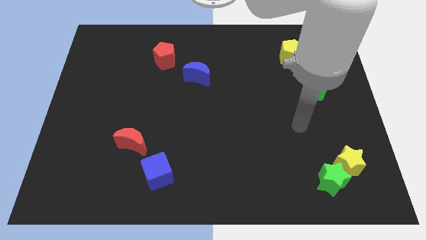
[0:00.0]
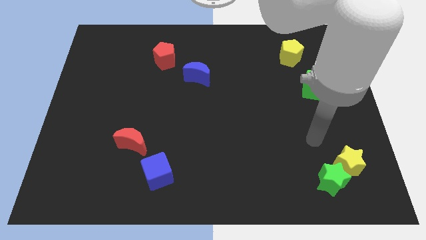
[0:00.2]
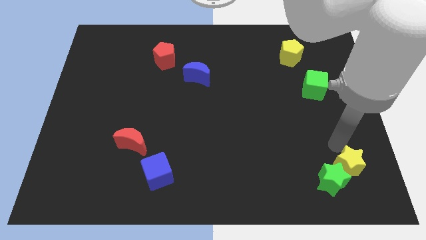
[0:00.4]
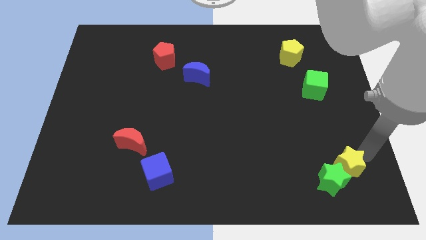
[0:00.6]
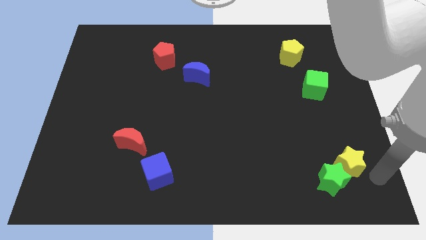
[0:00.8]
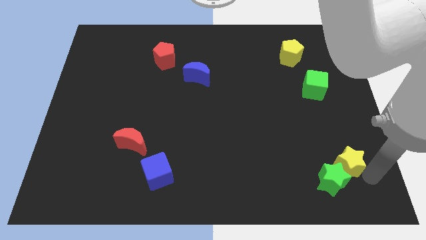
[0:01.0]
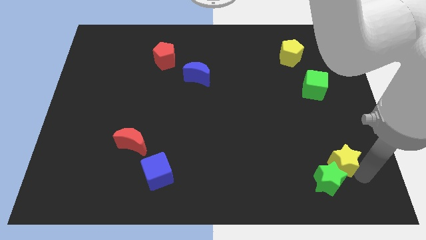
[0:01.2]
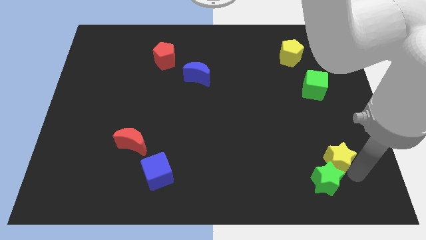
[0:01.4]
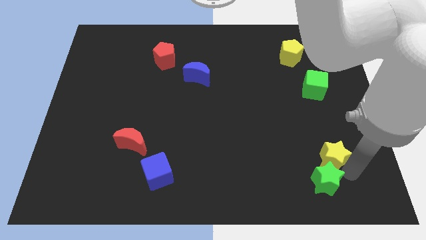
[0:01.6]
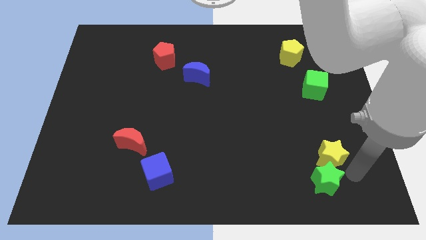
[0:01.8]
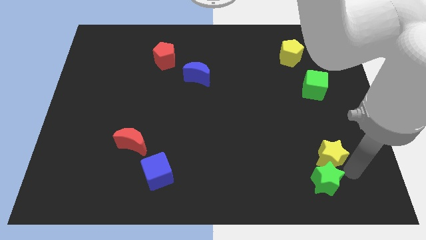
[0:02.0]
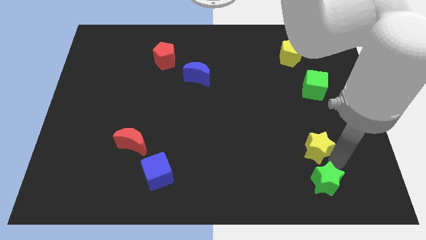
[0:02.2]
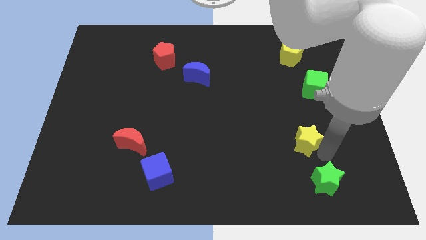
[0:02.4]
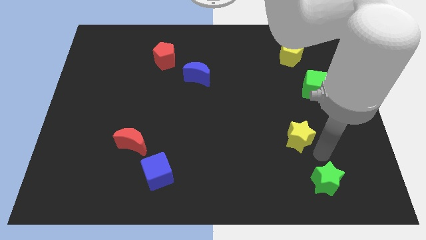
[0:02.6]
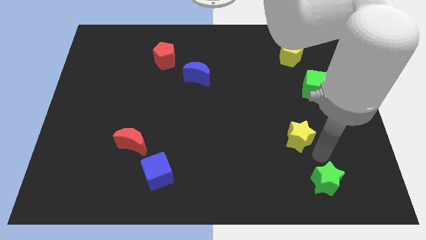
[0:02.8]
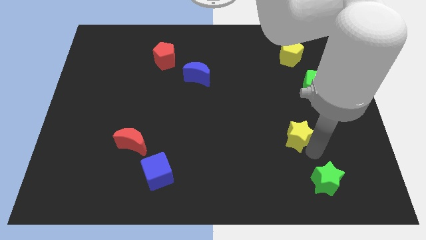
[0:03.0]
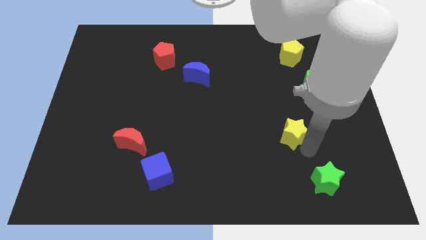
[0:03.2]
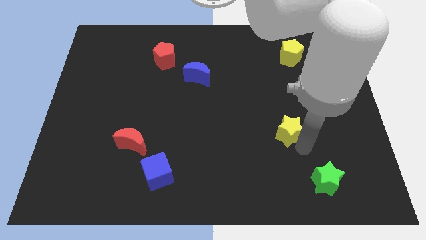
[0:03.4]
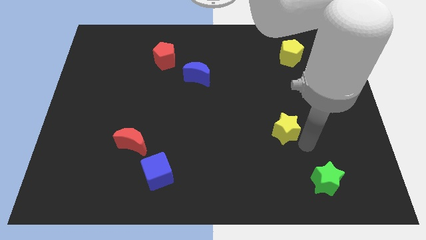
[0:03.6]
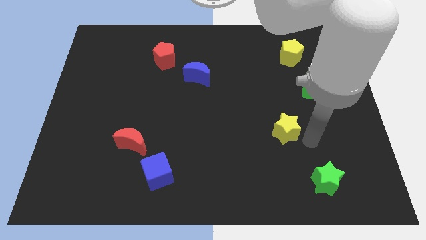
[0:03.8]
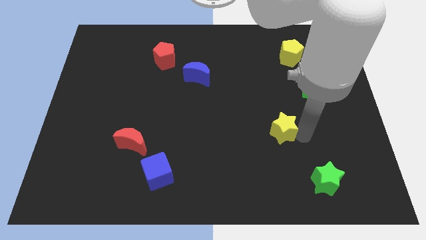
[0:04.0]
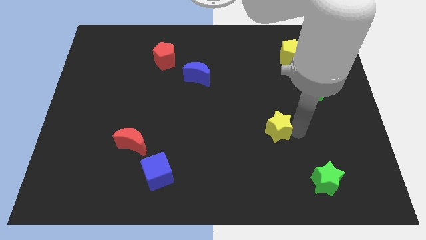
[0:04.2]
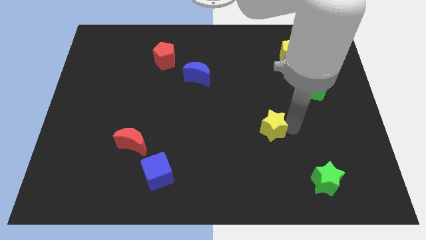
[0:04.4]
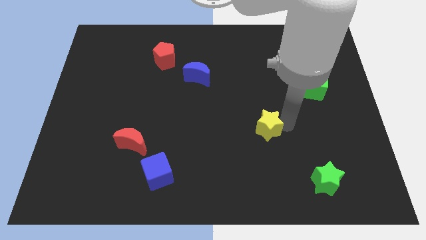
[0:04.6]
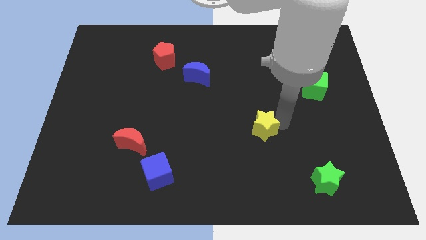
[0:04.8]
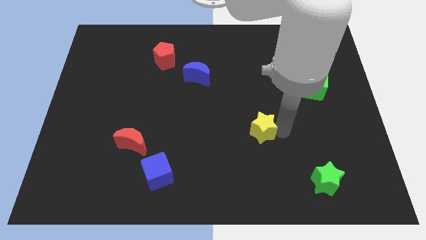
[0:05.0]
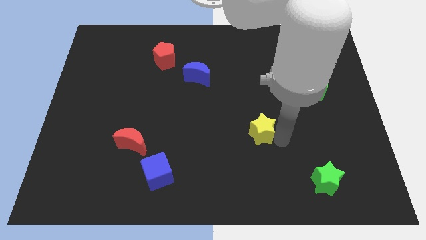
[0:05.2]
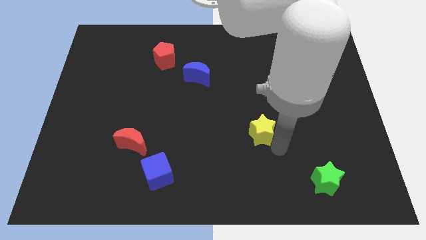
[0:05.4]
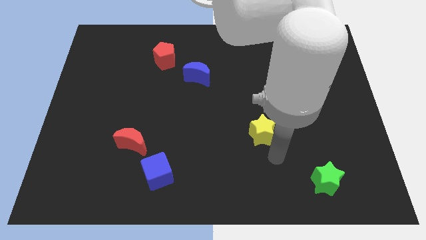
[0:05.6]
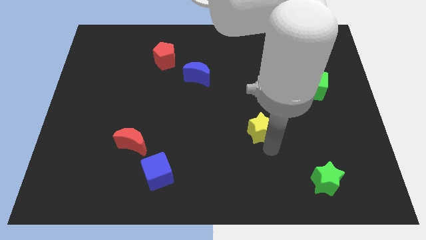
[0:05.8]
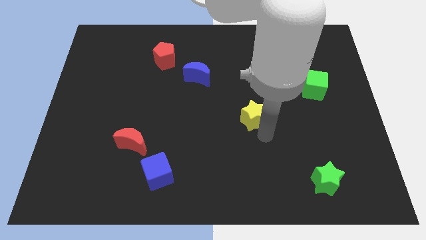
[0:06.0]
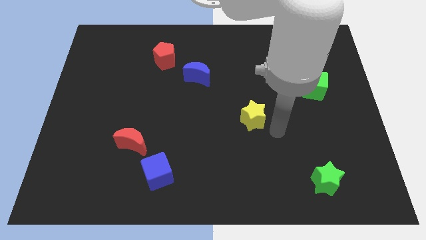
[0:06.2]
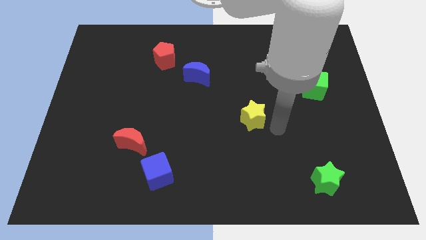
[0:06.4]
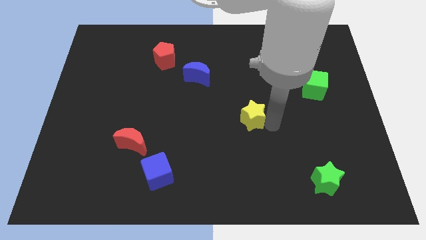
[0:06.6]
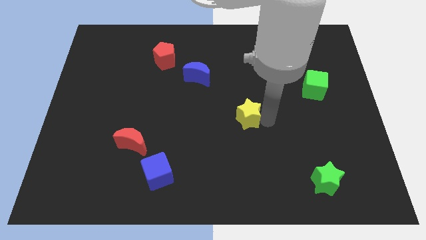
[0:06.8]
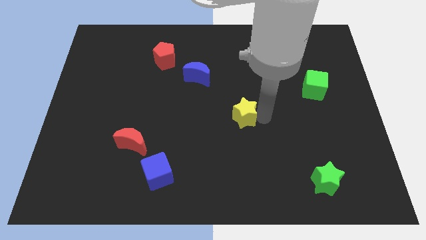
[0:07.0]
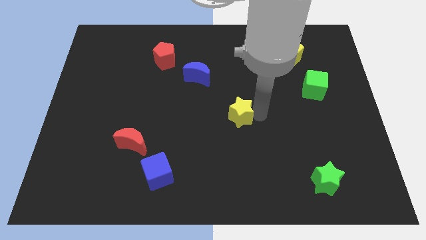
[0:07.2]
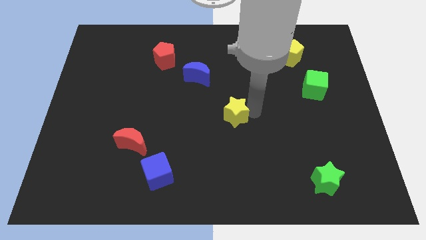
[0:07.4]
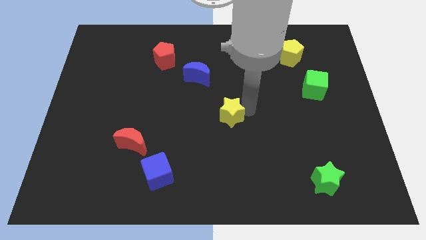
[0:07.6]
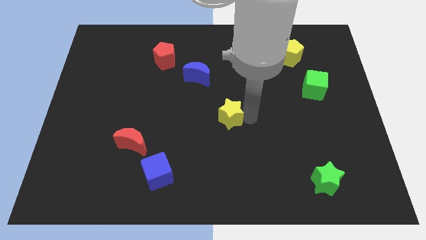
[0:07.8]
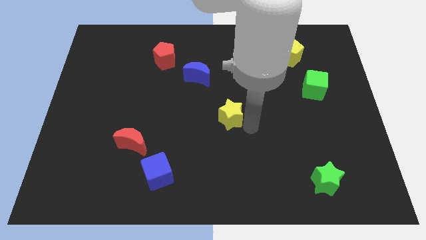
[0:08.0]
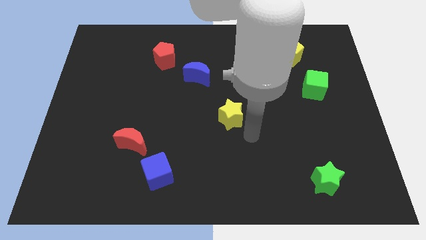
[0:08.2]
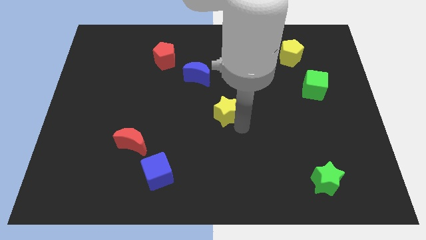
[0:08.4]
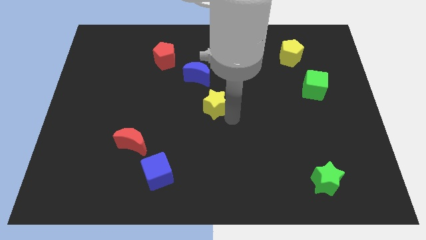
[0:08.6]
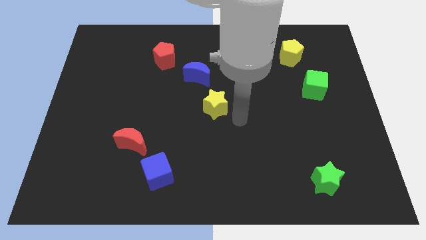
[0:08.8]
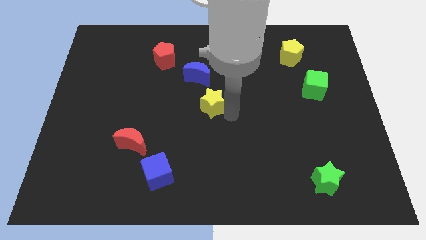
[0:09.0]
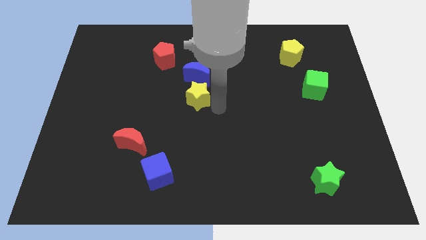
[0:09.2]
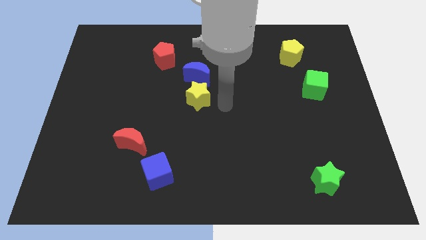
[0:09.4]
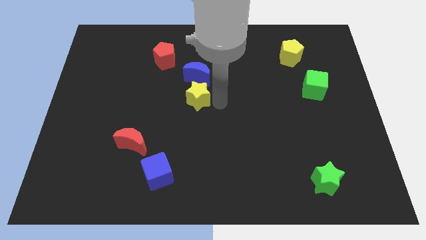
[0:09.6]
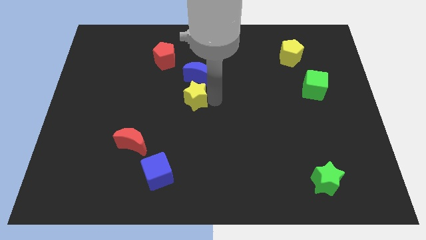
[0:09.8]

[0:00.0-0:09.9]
push the yellow star to the bottom left side of the blue moon

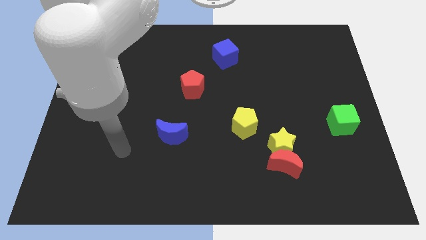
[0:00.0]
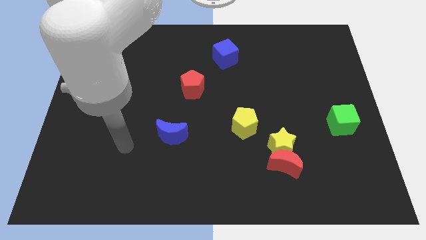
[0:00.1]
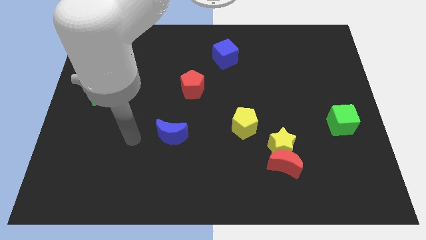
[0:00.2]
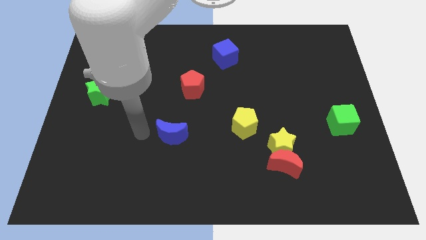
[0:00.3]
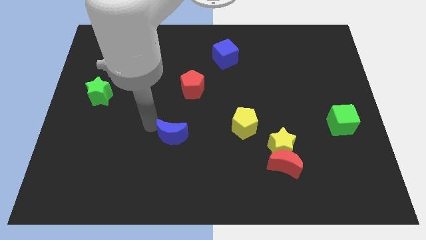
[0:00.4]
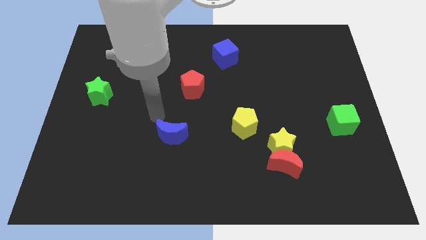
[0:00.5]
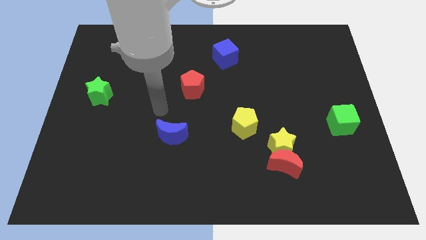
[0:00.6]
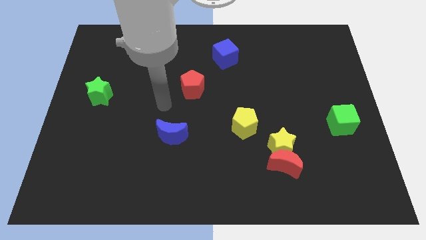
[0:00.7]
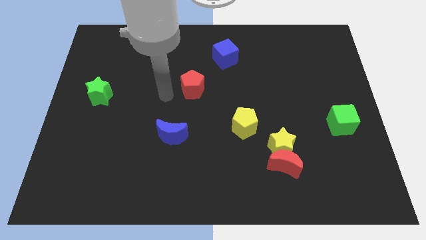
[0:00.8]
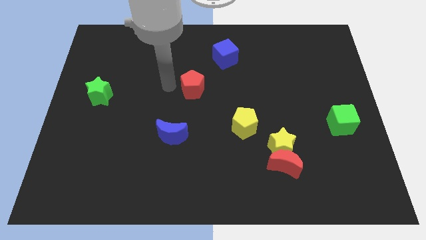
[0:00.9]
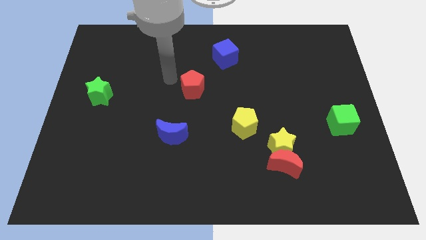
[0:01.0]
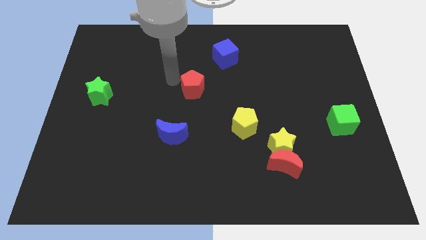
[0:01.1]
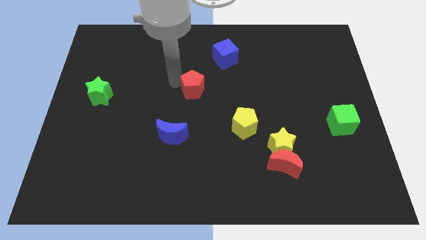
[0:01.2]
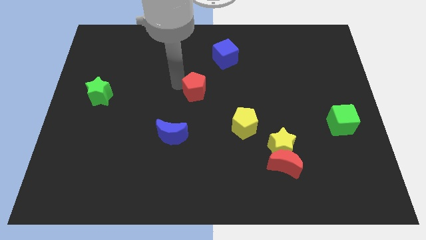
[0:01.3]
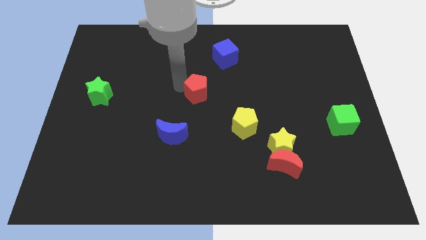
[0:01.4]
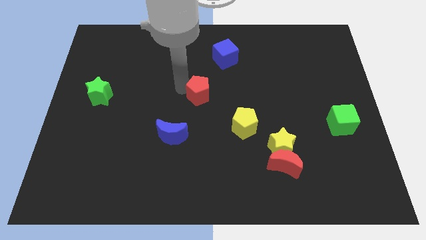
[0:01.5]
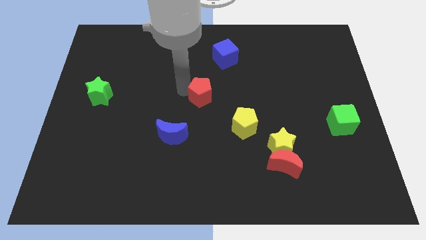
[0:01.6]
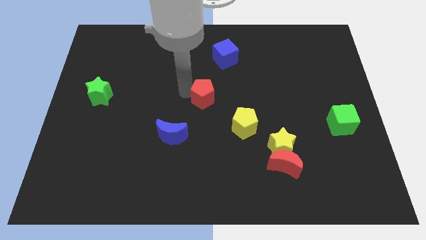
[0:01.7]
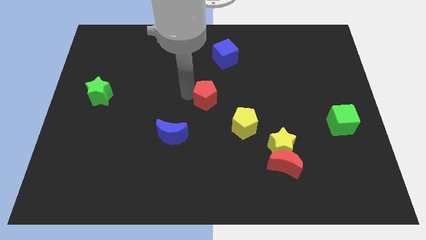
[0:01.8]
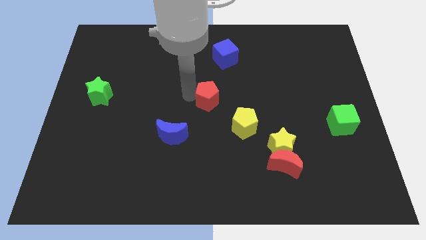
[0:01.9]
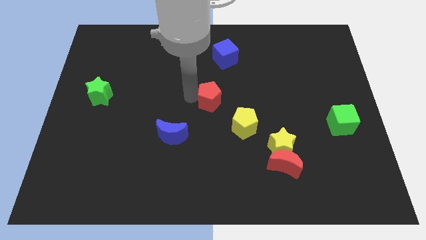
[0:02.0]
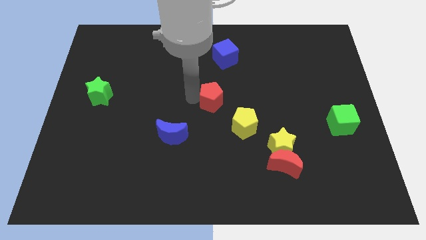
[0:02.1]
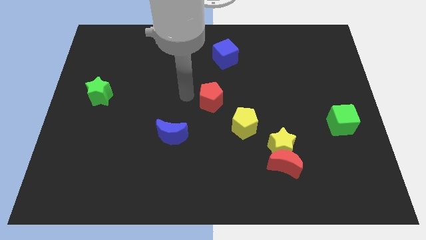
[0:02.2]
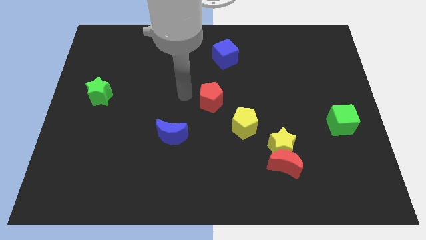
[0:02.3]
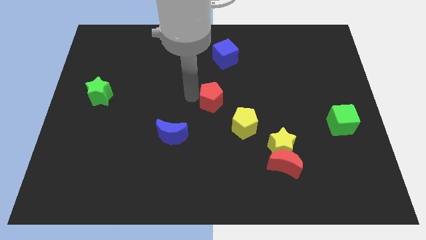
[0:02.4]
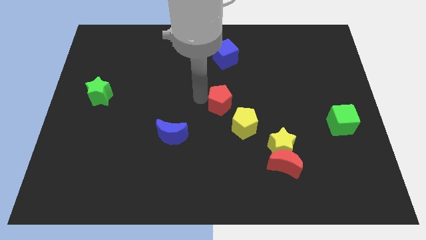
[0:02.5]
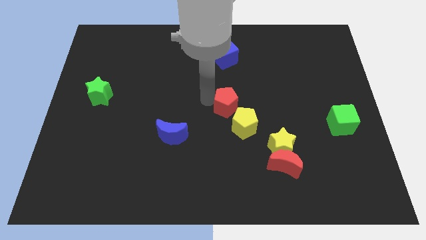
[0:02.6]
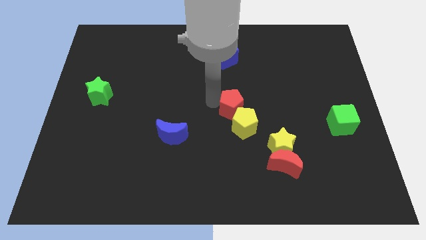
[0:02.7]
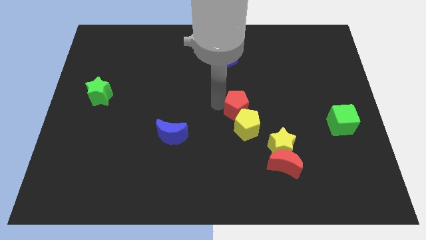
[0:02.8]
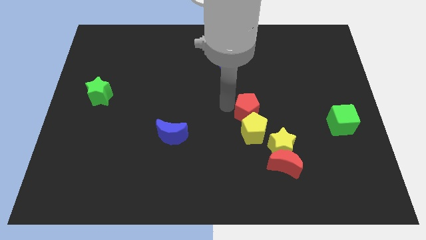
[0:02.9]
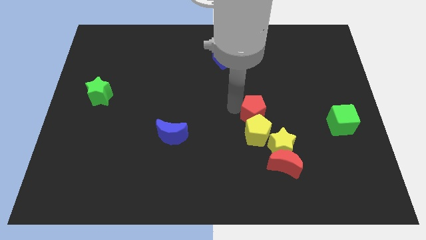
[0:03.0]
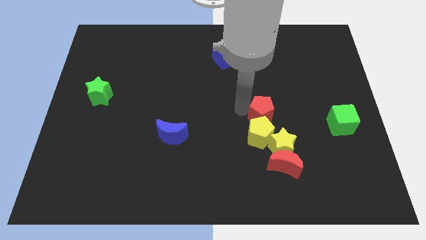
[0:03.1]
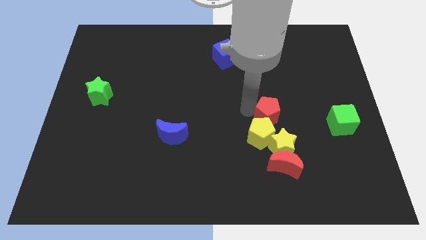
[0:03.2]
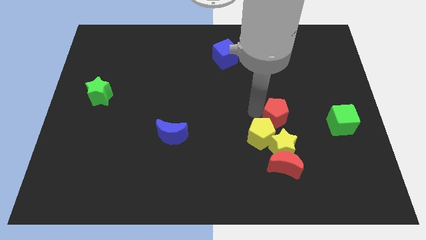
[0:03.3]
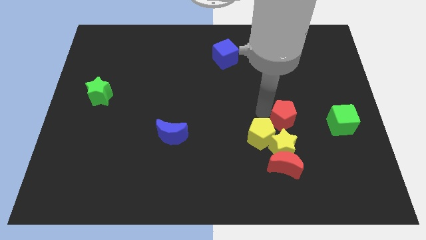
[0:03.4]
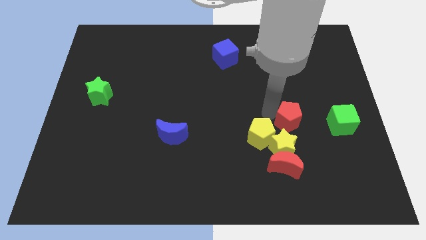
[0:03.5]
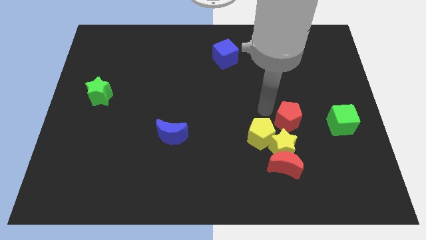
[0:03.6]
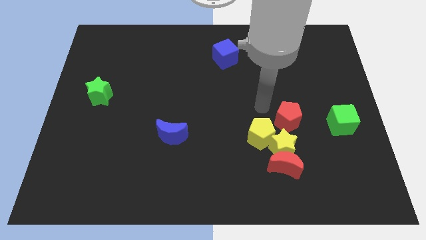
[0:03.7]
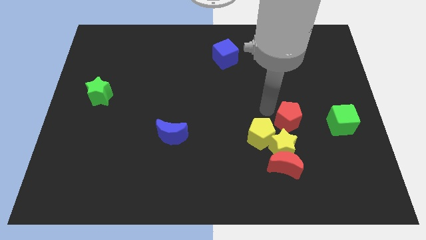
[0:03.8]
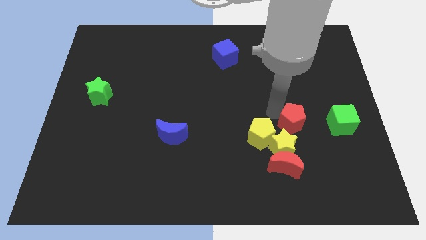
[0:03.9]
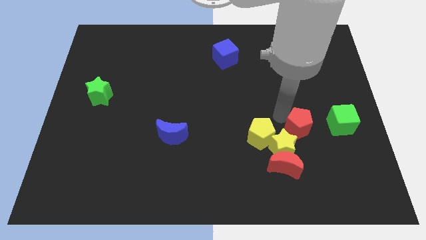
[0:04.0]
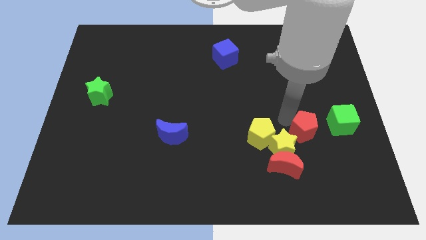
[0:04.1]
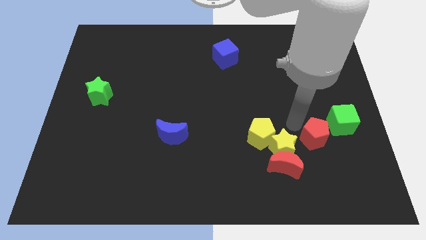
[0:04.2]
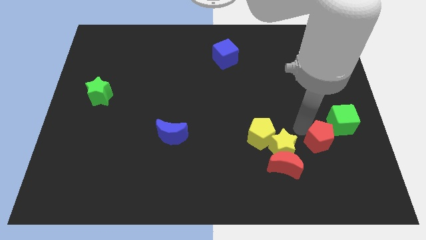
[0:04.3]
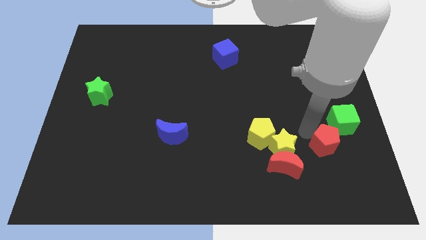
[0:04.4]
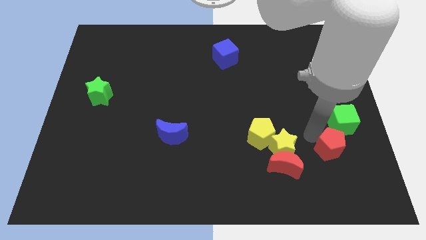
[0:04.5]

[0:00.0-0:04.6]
move the red pentagon to the bottom side of the green cube
